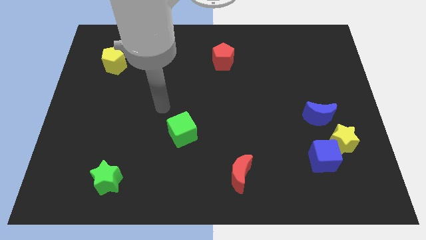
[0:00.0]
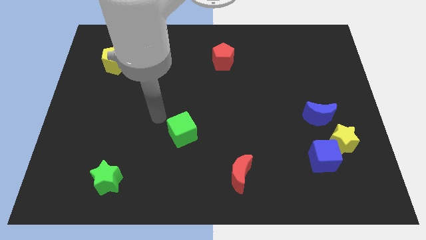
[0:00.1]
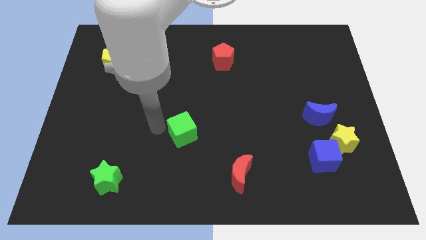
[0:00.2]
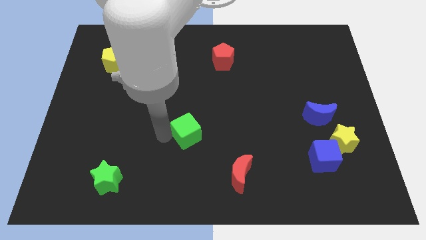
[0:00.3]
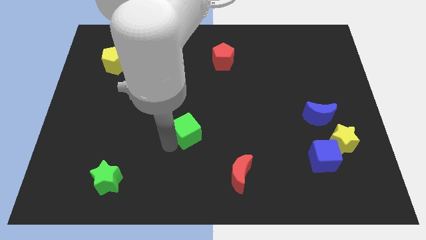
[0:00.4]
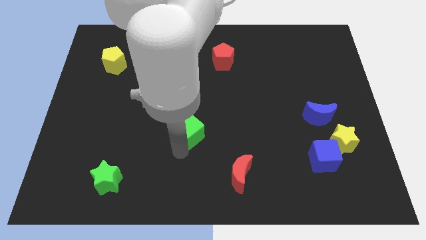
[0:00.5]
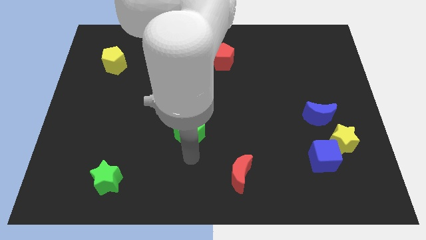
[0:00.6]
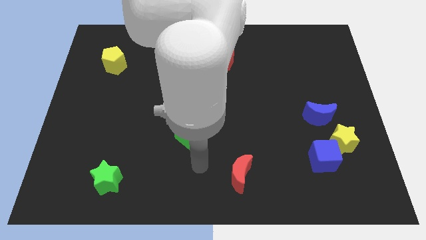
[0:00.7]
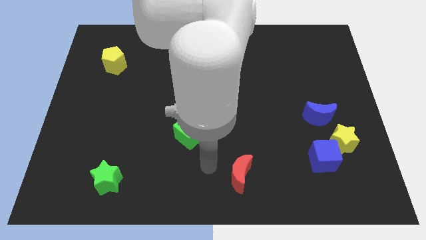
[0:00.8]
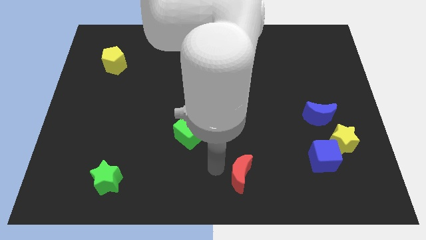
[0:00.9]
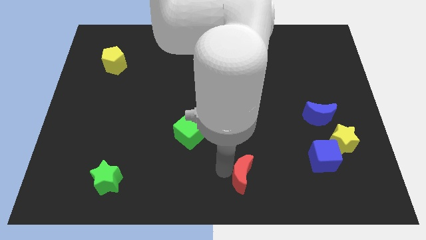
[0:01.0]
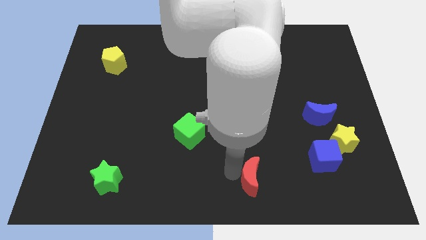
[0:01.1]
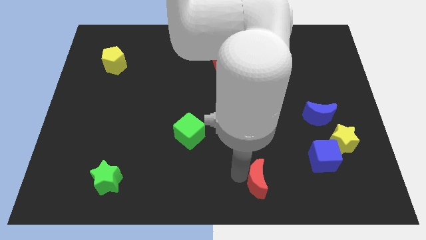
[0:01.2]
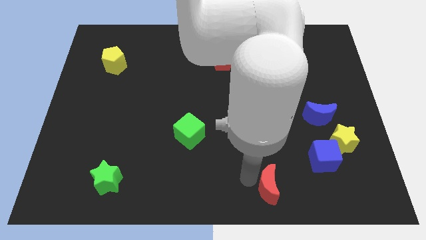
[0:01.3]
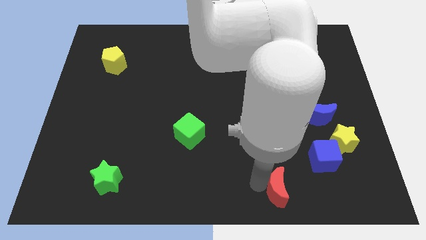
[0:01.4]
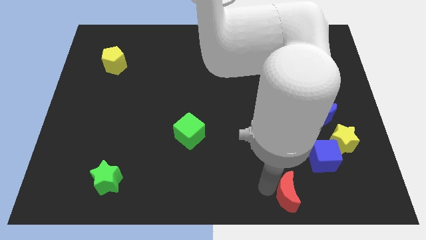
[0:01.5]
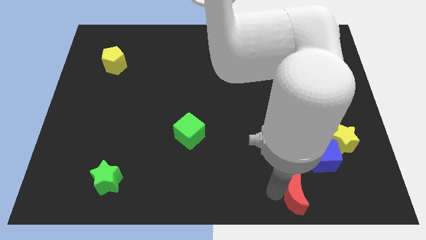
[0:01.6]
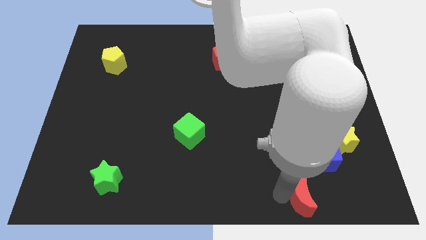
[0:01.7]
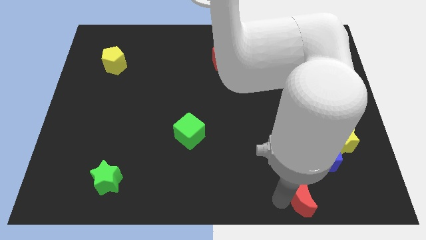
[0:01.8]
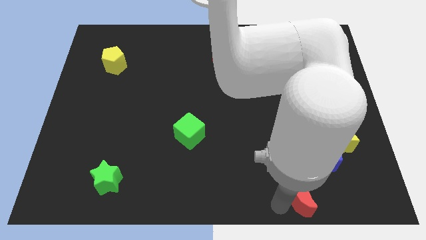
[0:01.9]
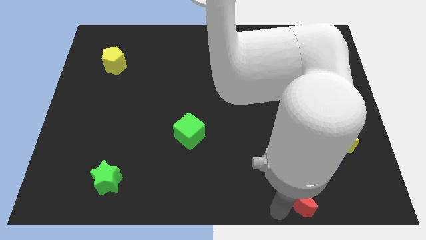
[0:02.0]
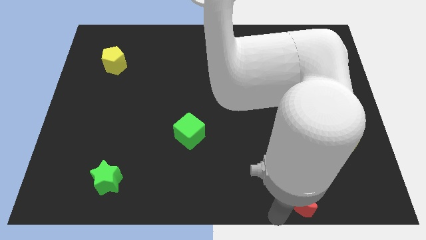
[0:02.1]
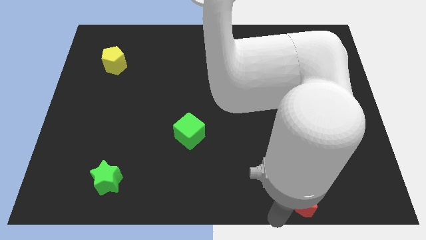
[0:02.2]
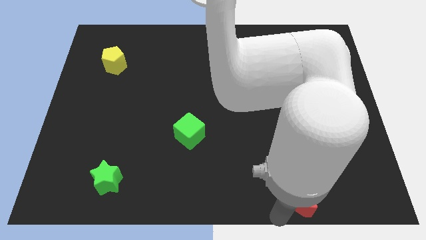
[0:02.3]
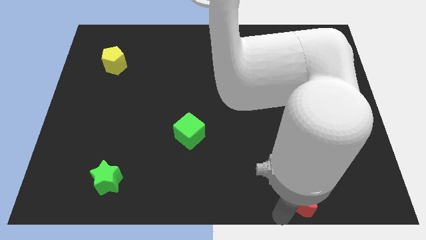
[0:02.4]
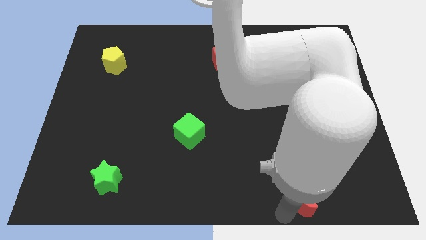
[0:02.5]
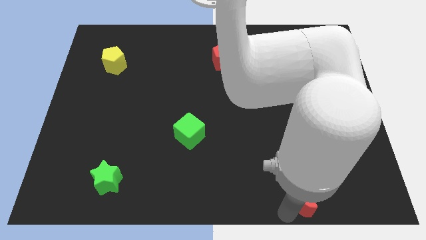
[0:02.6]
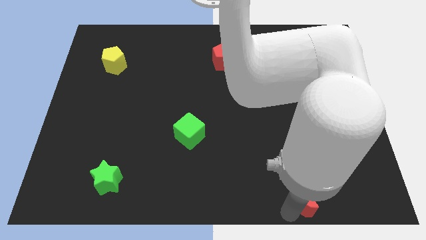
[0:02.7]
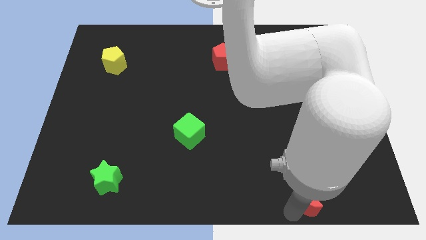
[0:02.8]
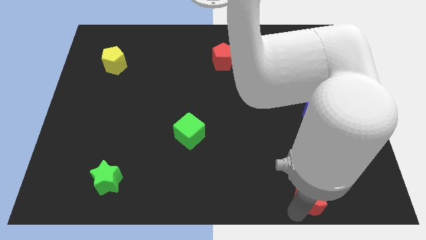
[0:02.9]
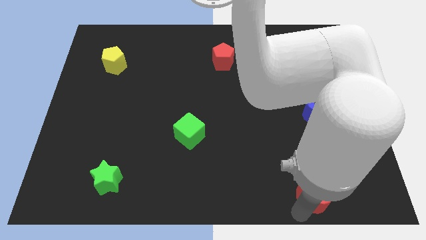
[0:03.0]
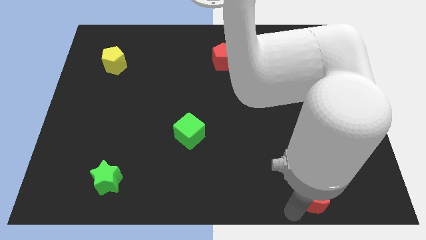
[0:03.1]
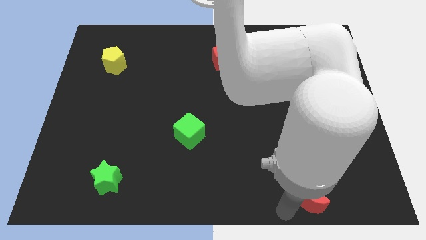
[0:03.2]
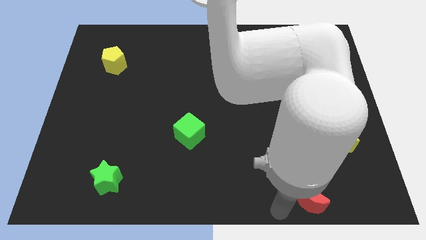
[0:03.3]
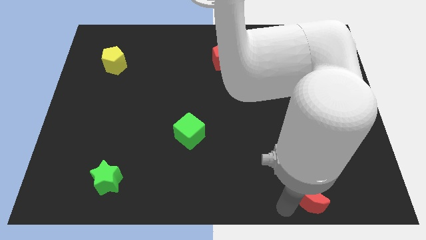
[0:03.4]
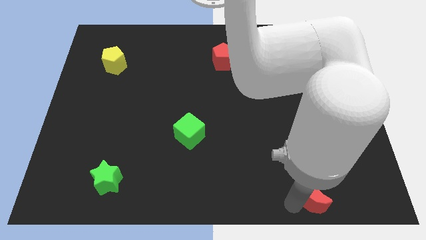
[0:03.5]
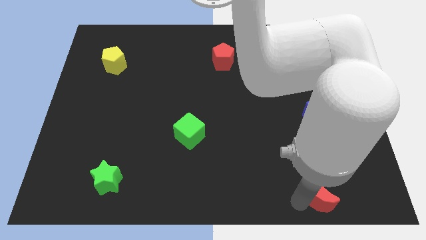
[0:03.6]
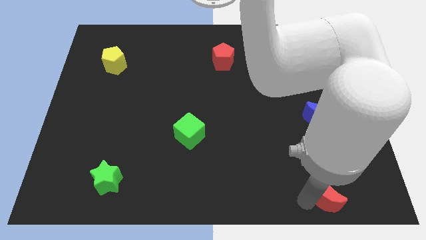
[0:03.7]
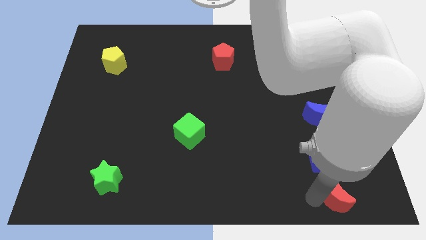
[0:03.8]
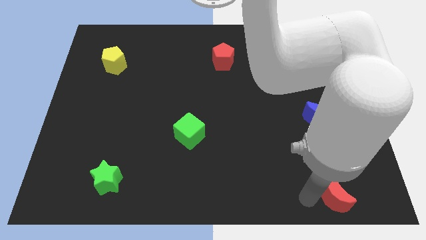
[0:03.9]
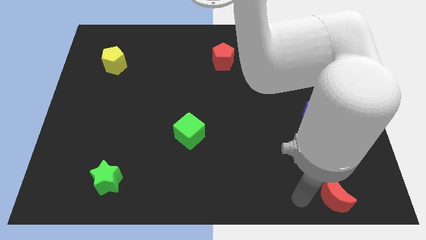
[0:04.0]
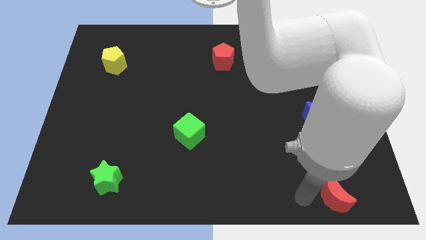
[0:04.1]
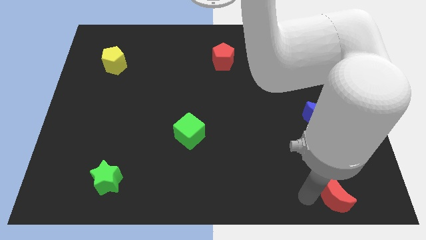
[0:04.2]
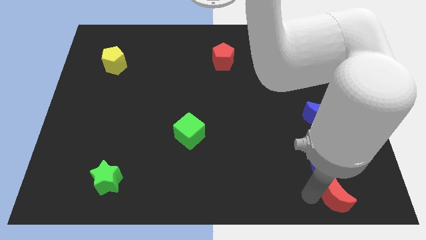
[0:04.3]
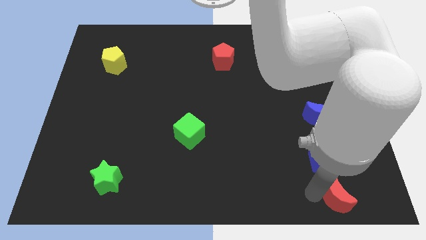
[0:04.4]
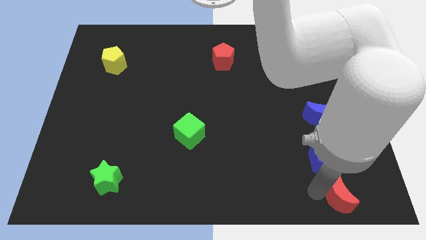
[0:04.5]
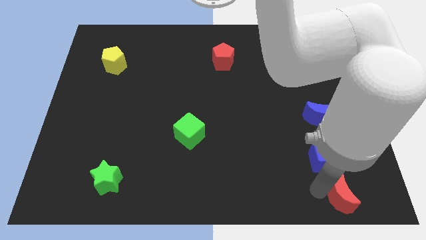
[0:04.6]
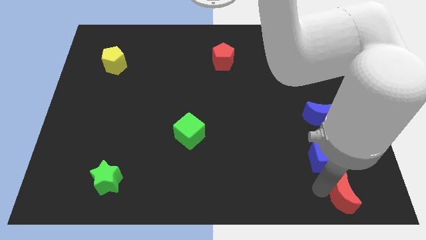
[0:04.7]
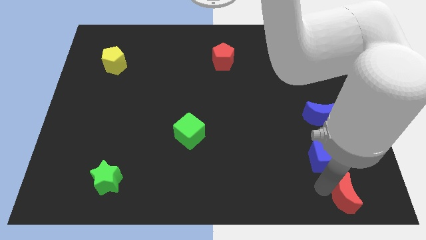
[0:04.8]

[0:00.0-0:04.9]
put the red moon to the bottom right

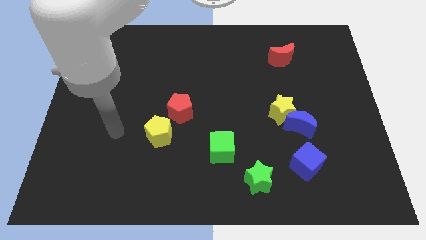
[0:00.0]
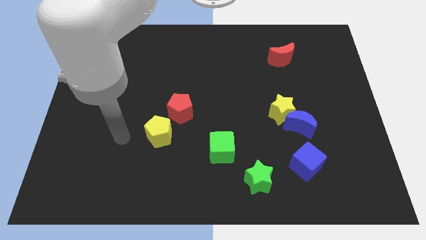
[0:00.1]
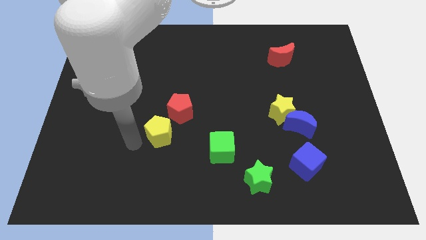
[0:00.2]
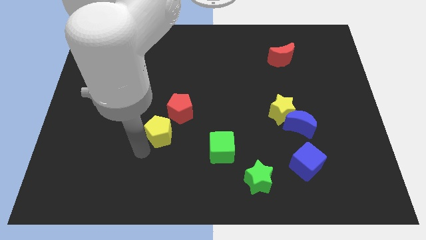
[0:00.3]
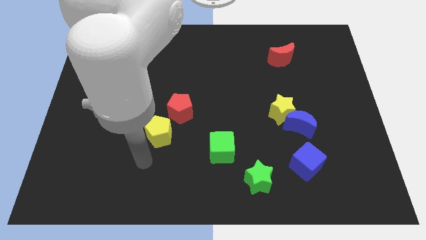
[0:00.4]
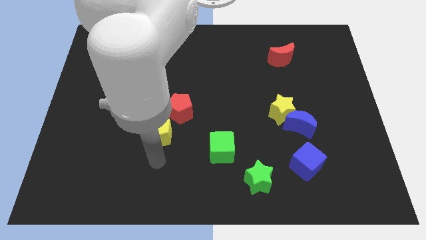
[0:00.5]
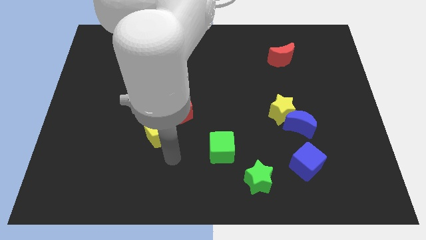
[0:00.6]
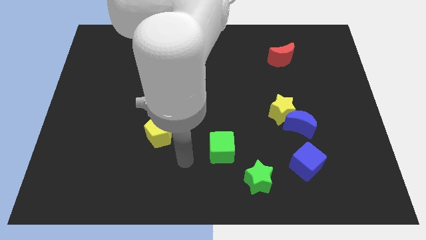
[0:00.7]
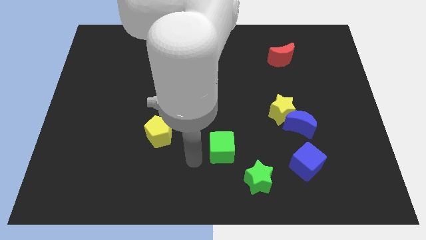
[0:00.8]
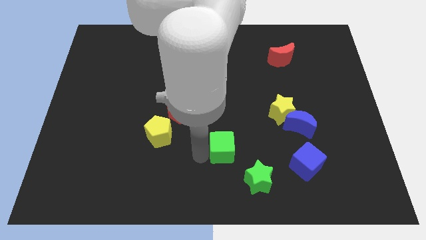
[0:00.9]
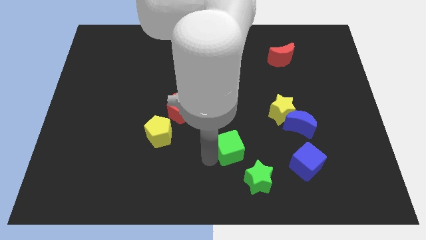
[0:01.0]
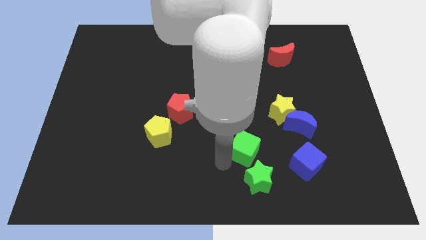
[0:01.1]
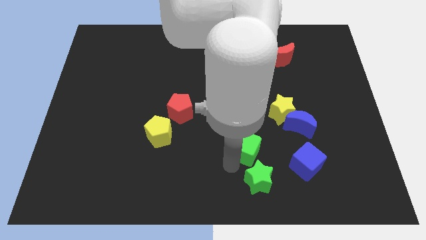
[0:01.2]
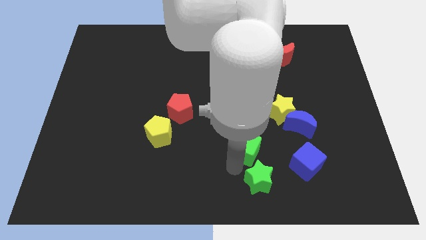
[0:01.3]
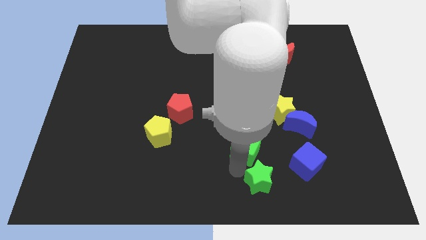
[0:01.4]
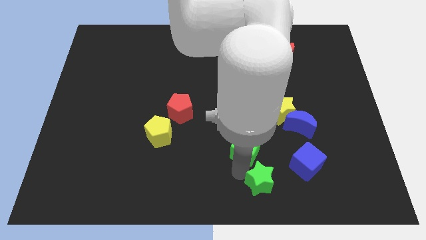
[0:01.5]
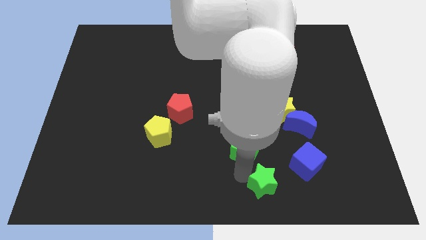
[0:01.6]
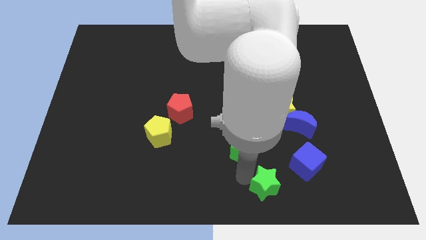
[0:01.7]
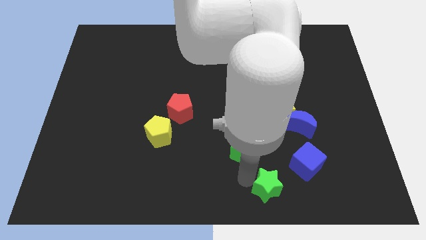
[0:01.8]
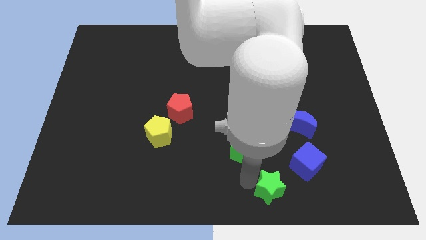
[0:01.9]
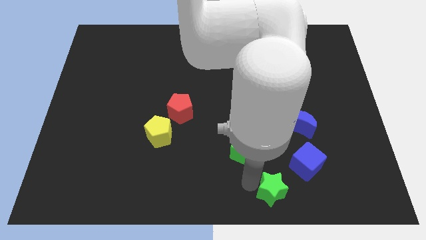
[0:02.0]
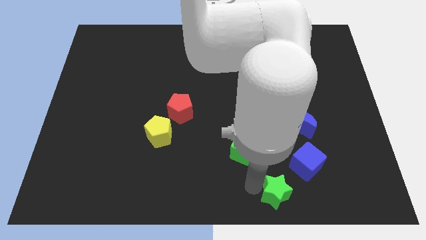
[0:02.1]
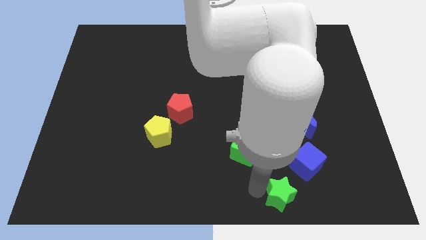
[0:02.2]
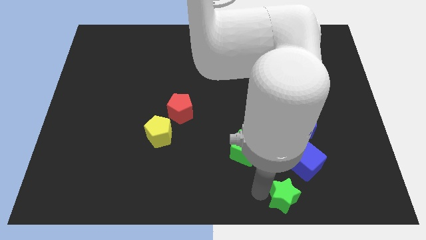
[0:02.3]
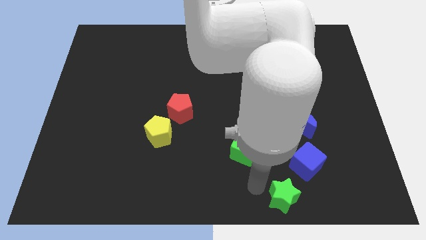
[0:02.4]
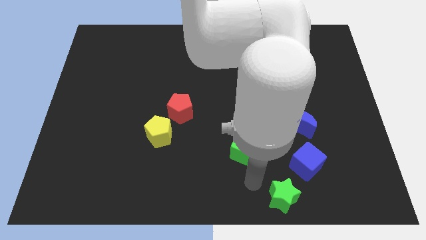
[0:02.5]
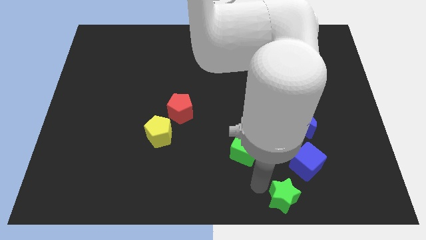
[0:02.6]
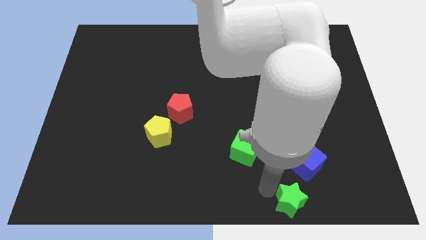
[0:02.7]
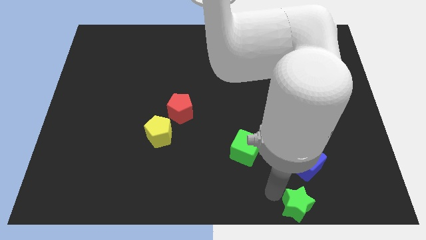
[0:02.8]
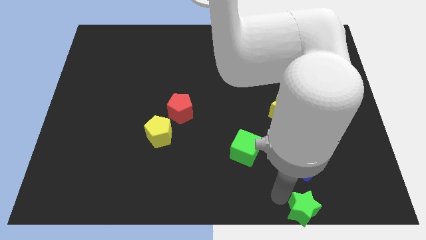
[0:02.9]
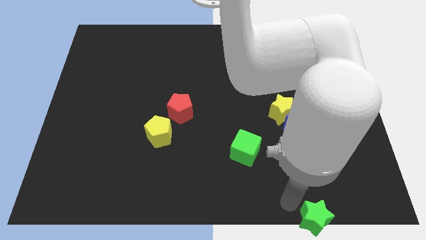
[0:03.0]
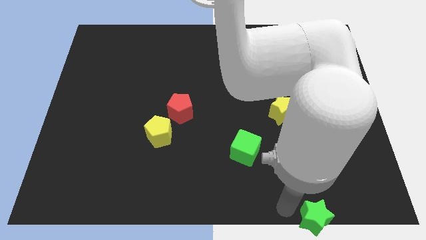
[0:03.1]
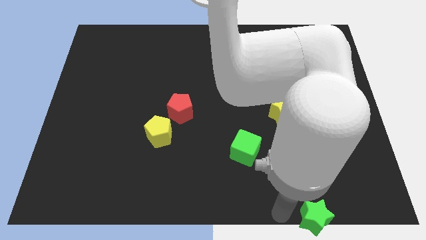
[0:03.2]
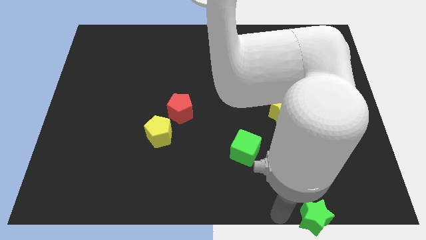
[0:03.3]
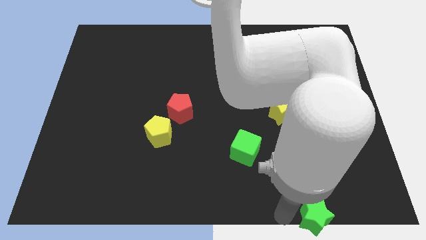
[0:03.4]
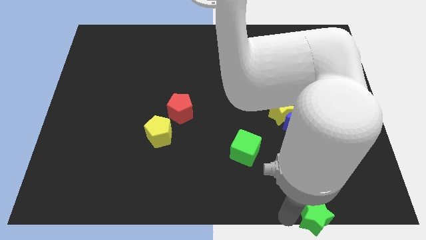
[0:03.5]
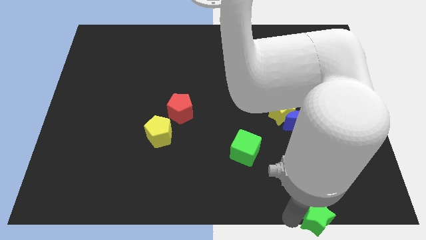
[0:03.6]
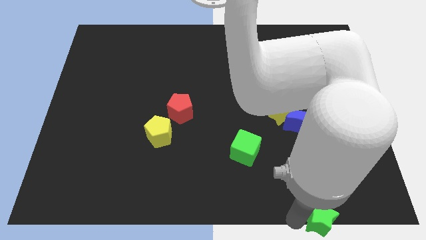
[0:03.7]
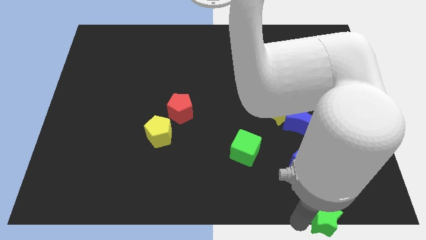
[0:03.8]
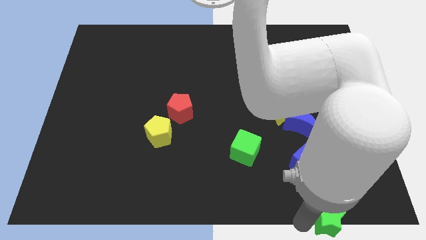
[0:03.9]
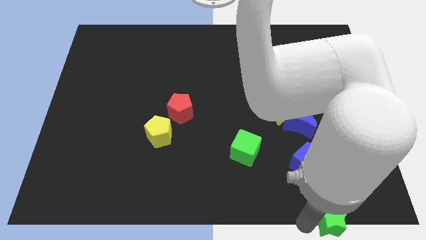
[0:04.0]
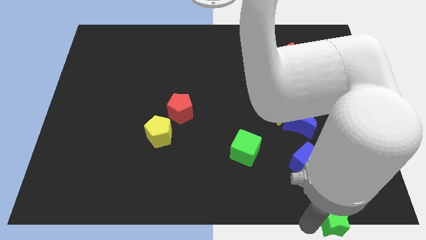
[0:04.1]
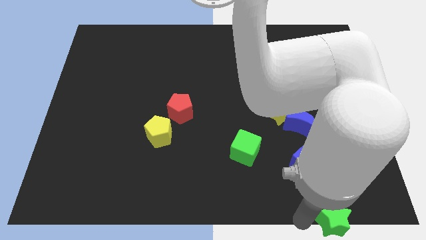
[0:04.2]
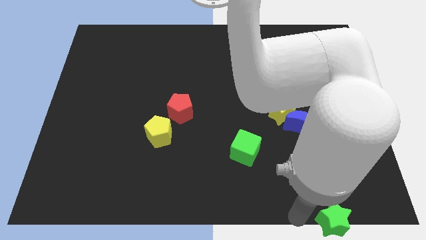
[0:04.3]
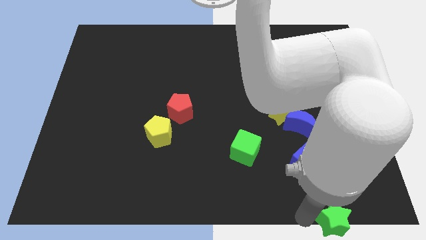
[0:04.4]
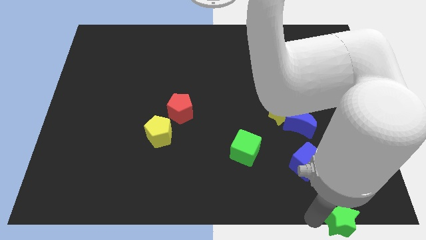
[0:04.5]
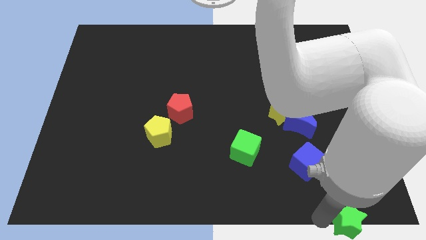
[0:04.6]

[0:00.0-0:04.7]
put the green star to the bottom right corner
